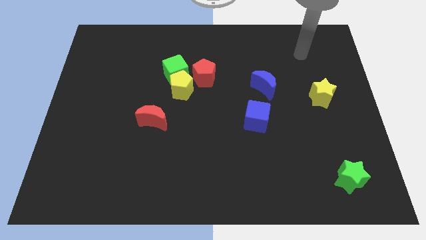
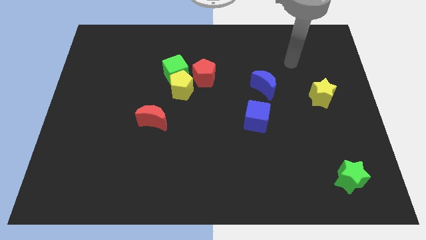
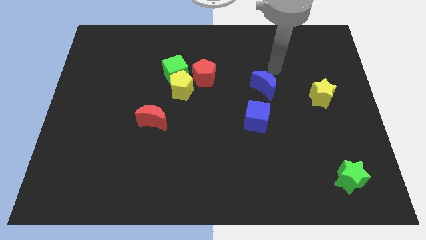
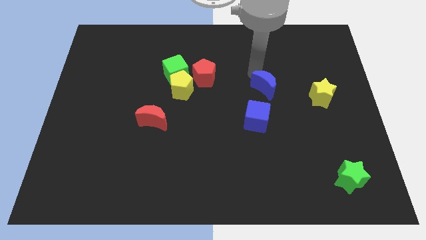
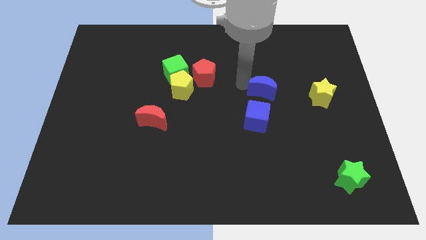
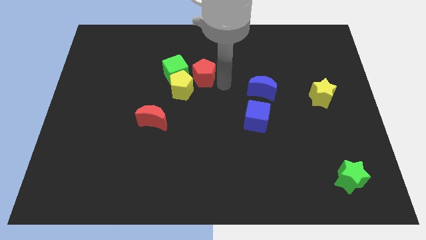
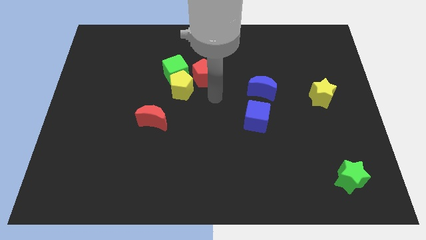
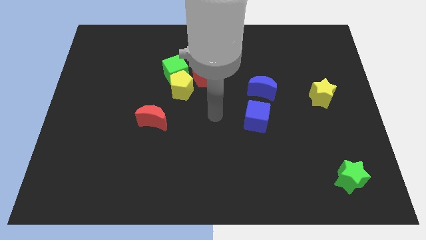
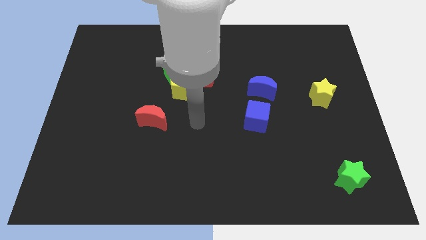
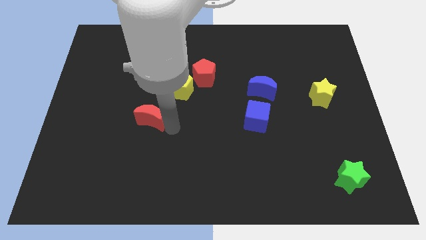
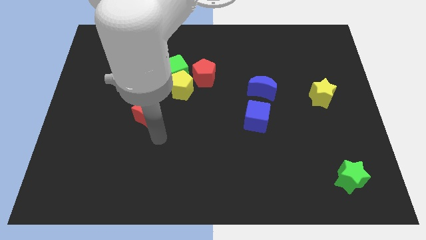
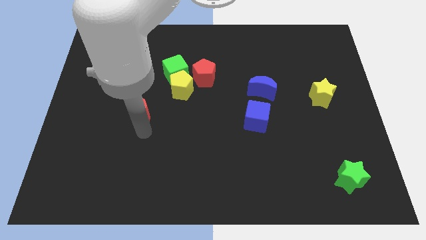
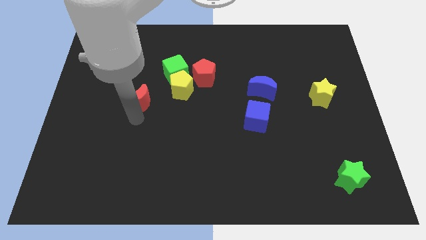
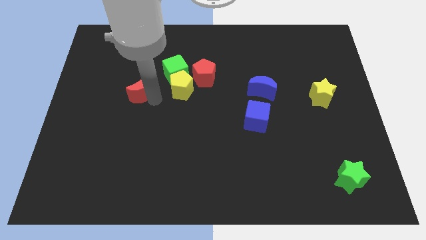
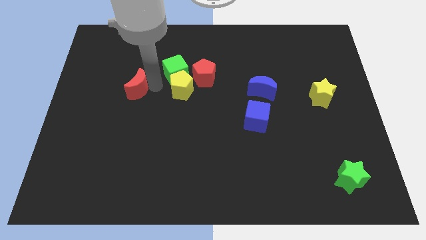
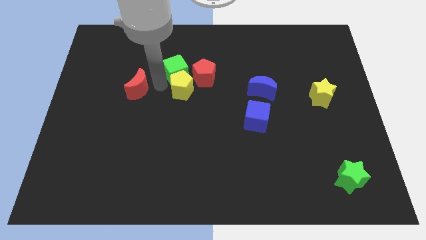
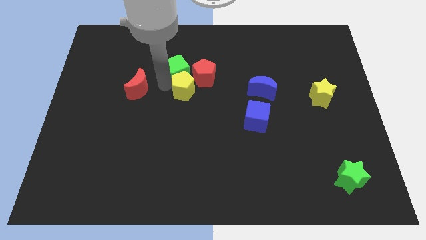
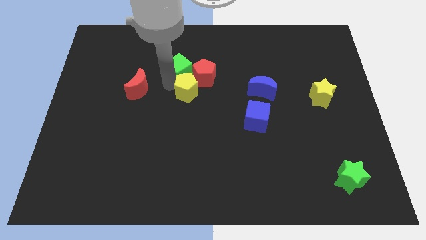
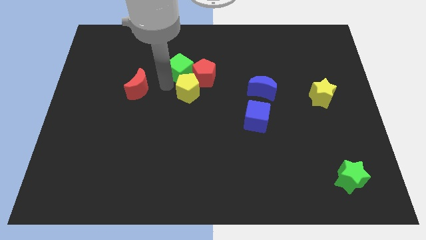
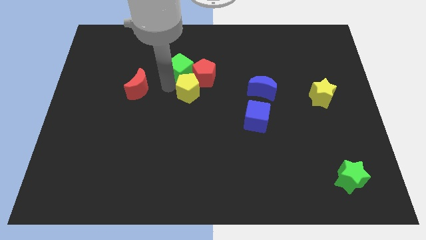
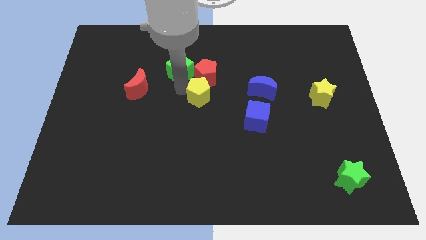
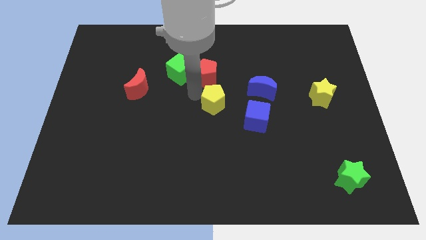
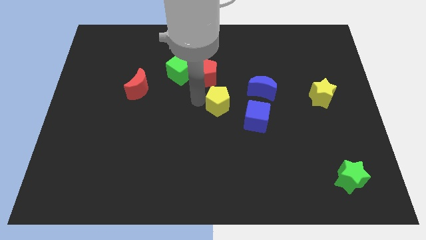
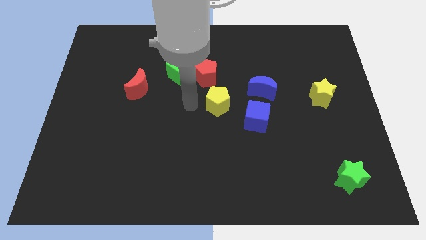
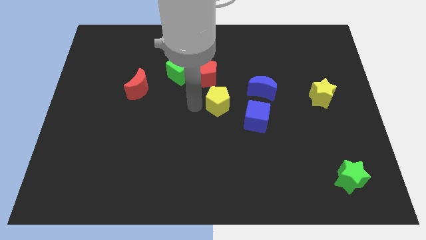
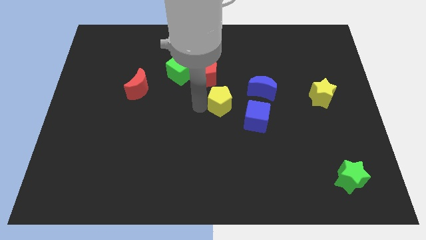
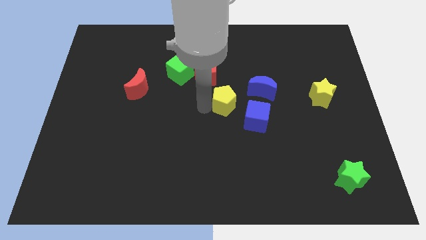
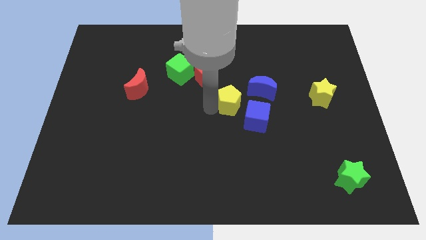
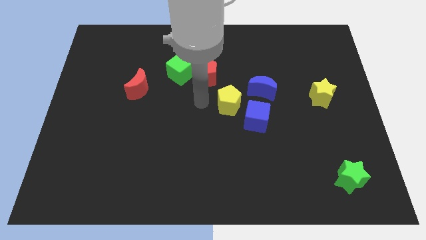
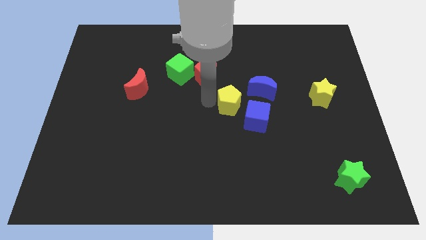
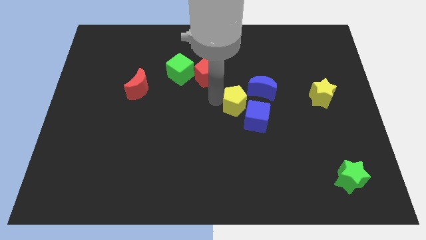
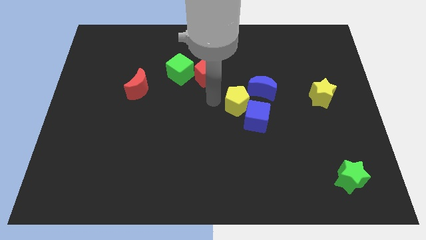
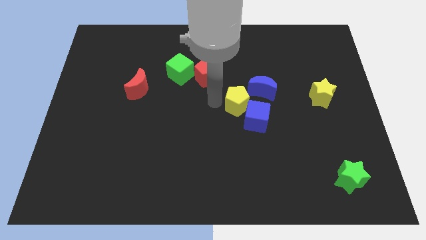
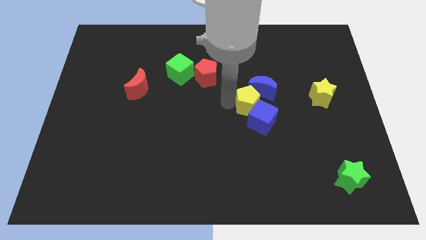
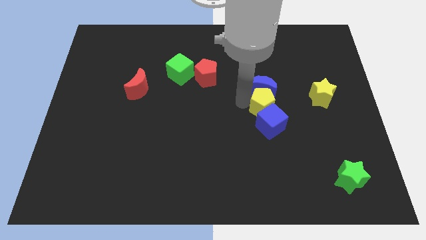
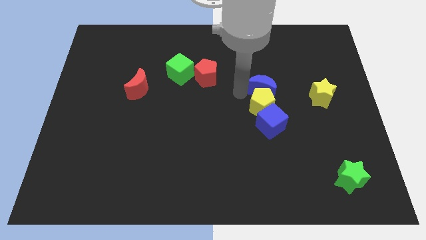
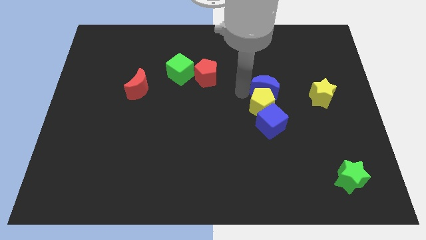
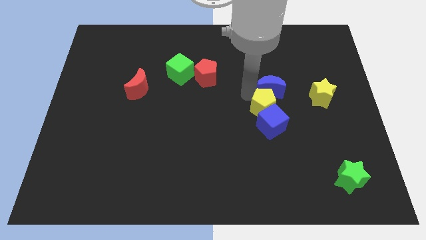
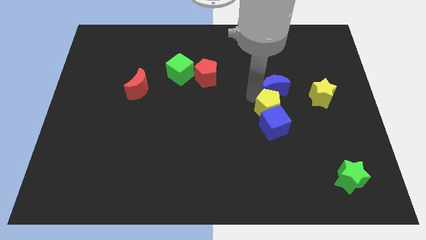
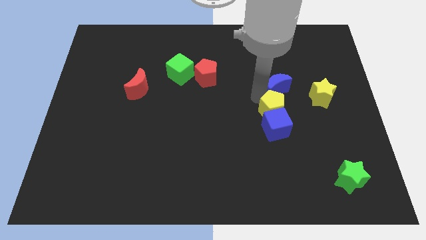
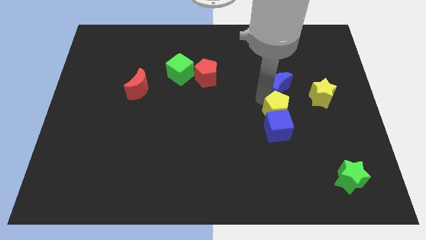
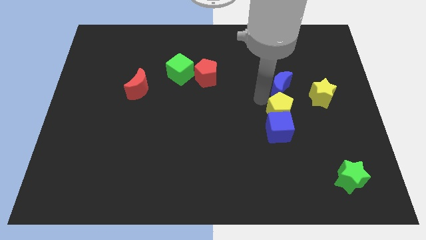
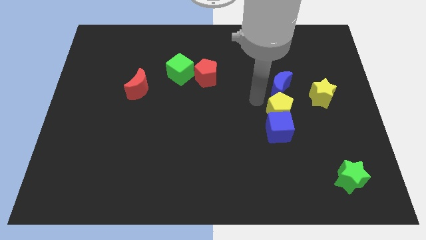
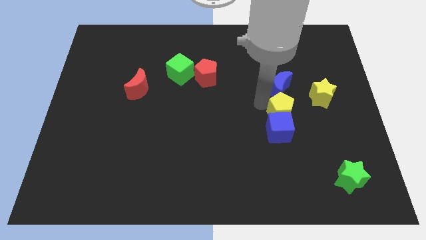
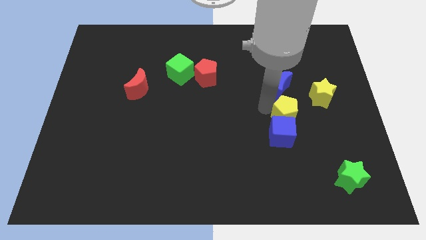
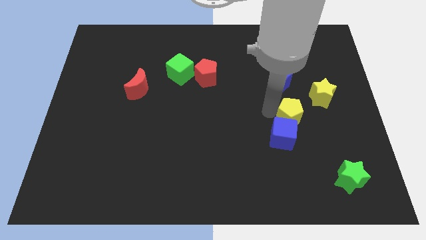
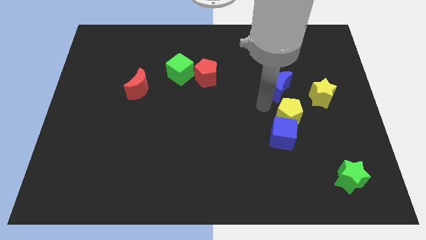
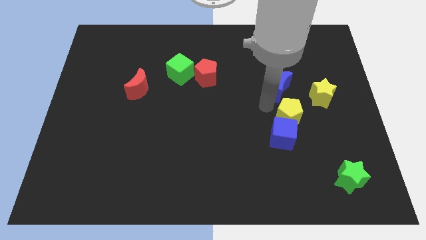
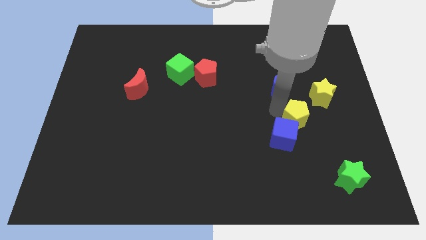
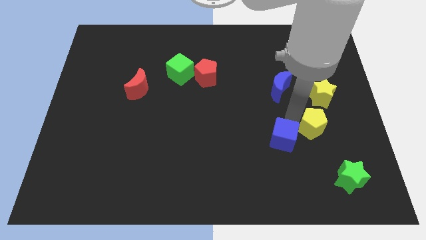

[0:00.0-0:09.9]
slide the yellow pentagon to the bottom of the yellow star

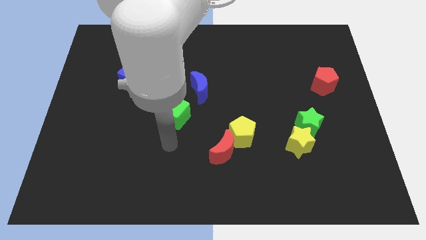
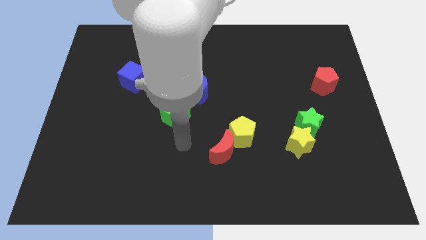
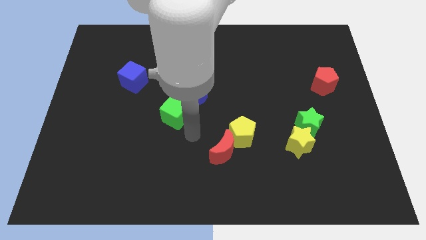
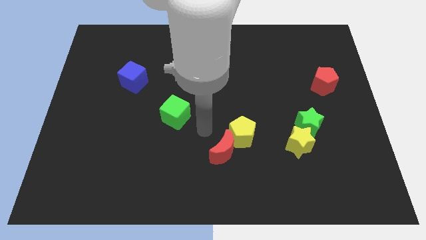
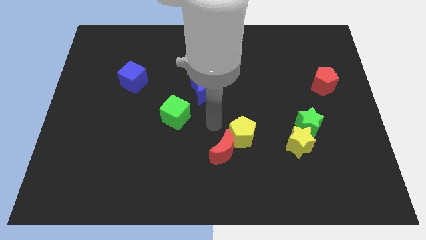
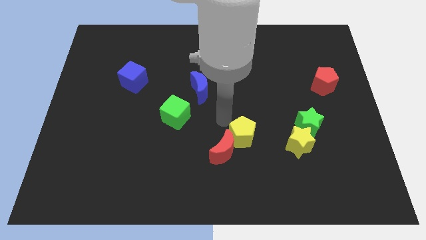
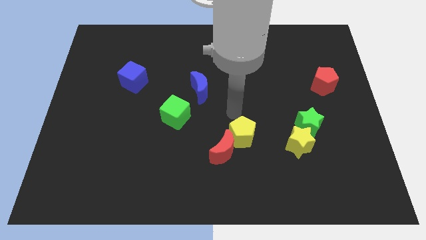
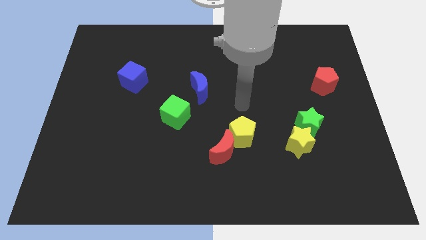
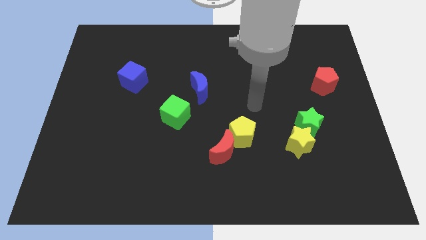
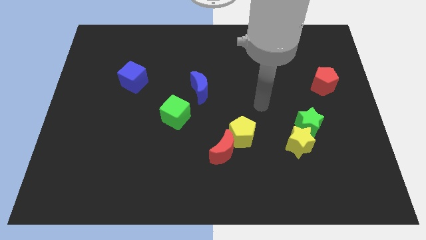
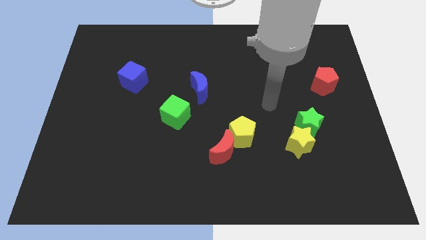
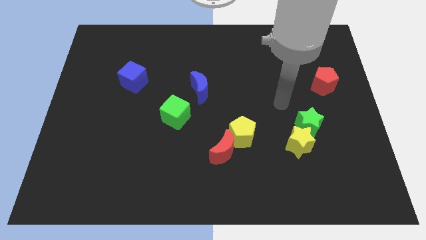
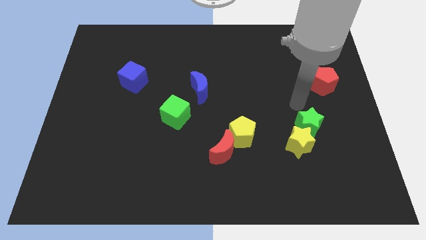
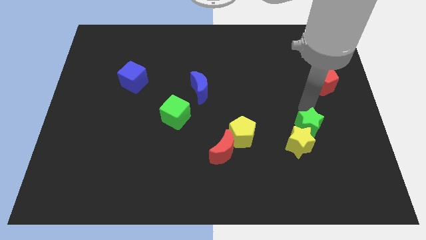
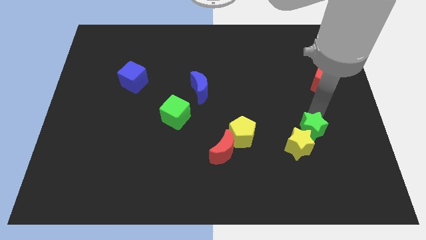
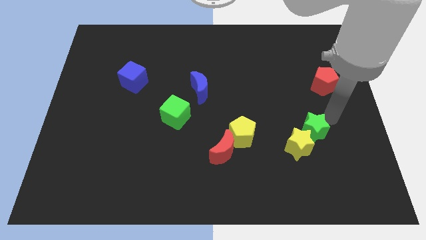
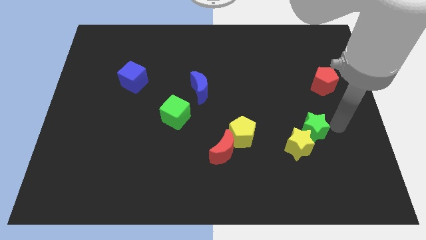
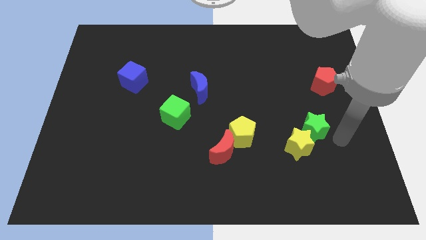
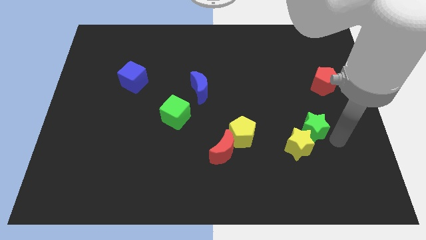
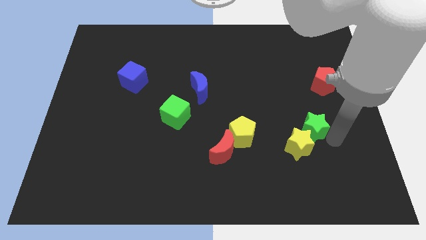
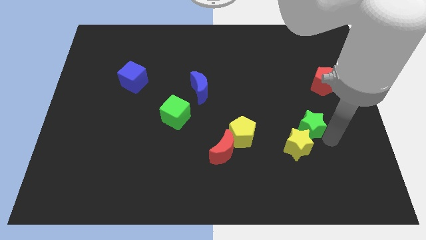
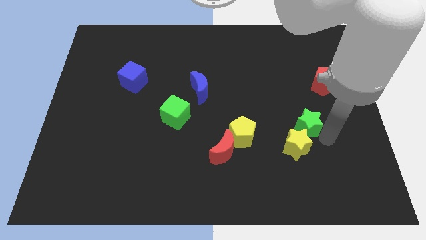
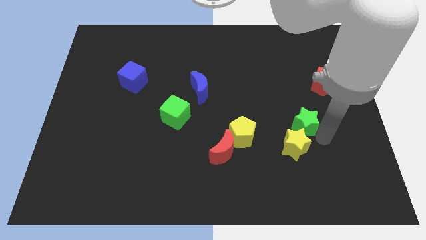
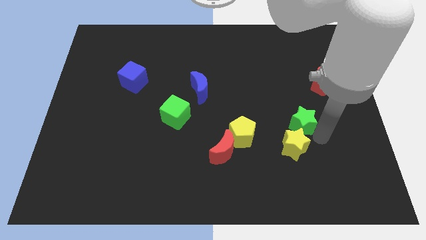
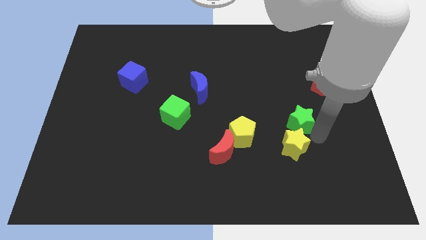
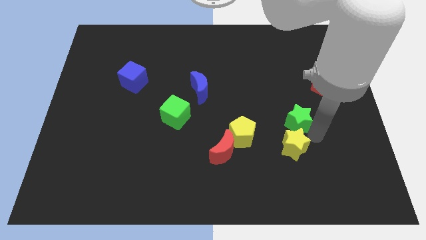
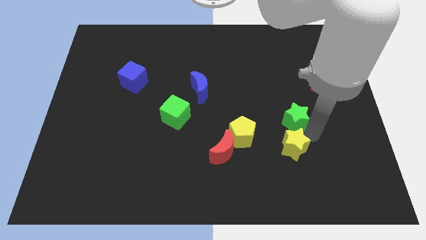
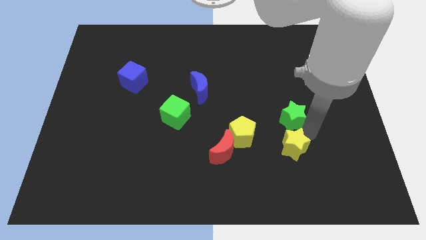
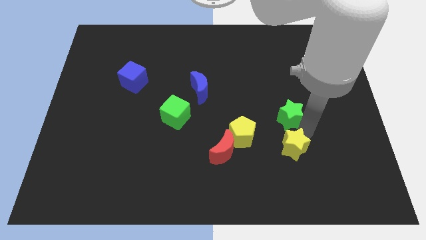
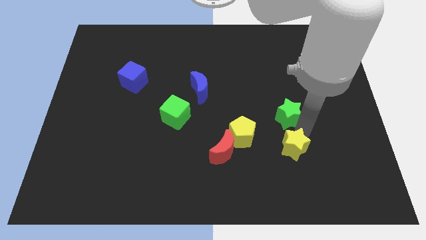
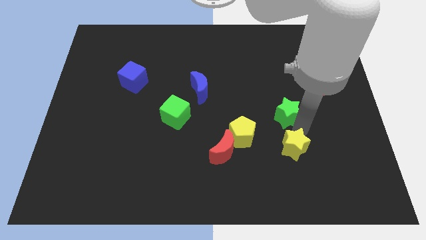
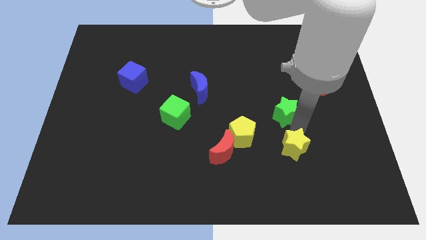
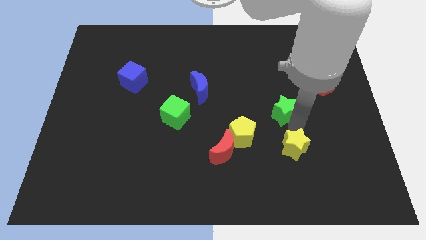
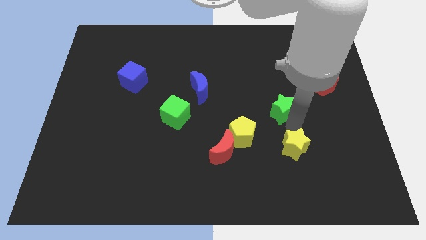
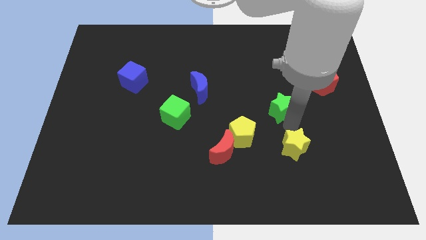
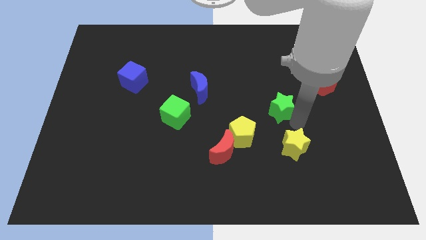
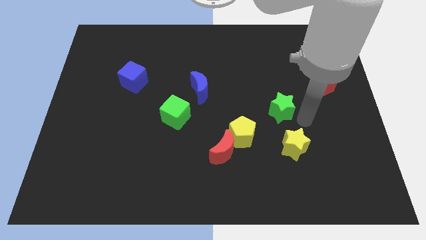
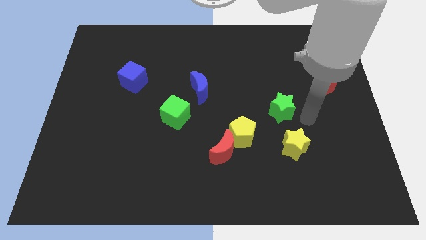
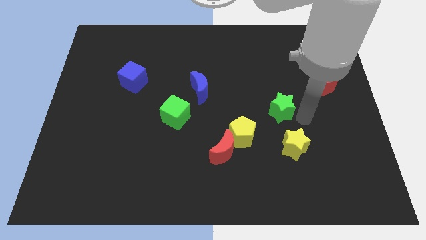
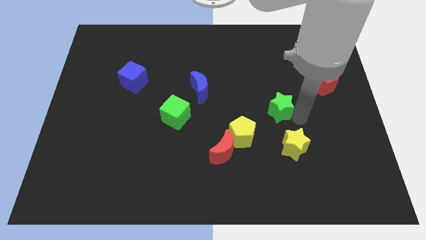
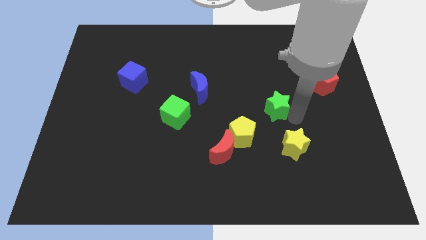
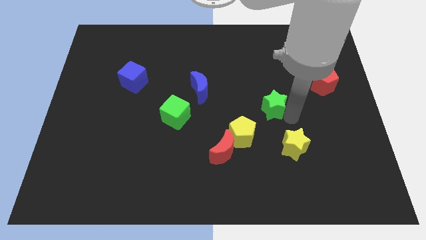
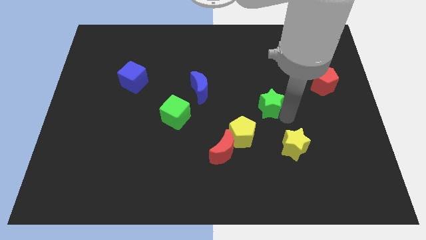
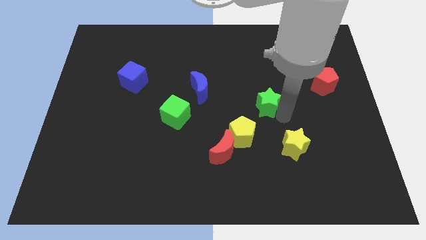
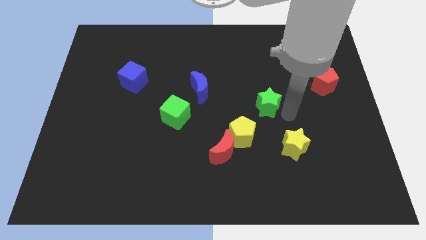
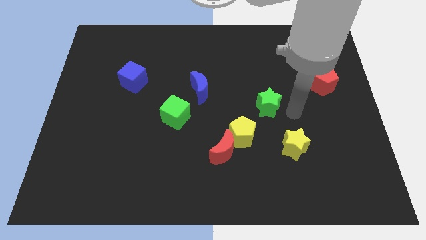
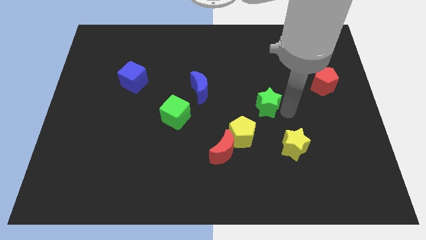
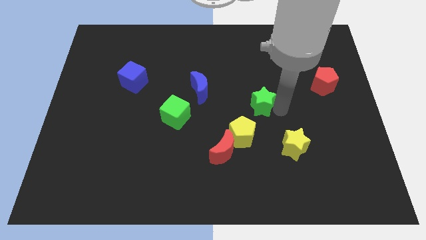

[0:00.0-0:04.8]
move the green star above the yellow pentagon
